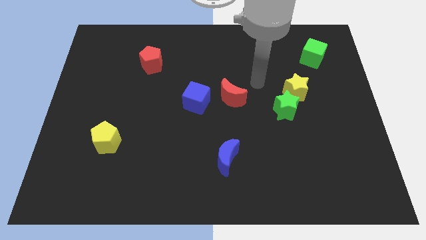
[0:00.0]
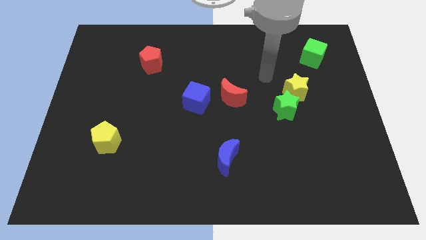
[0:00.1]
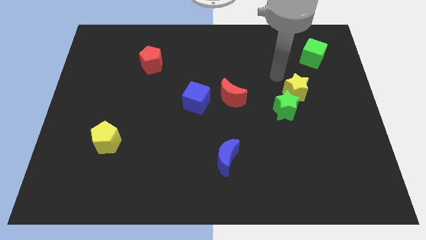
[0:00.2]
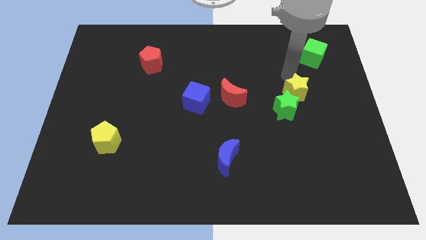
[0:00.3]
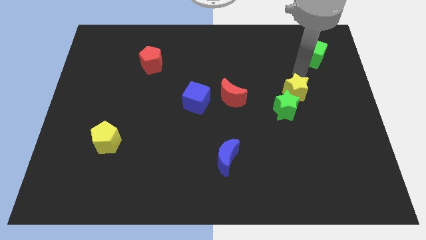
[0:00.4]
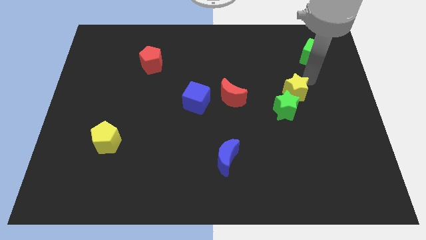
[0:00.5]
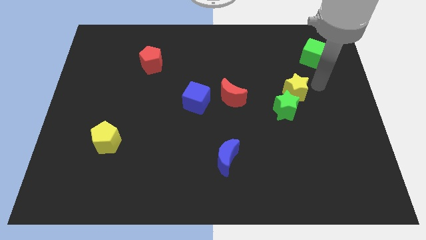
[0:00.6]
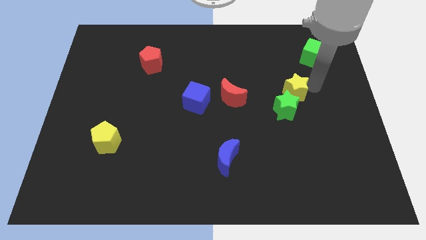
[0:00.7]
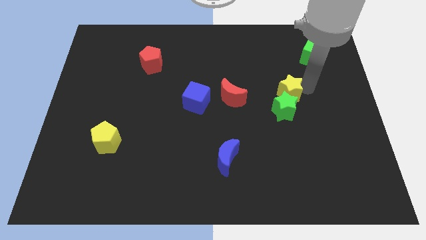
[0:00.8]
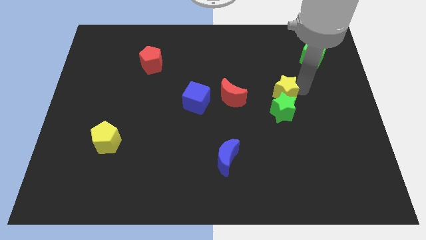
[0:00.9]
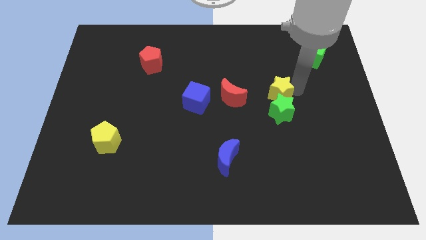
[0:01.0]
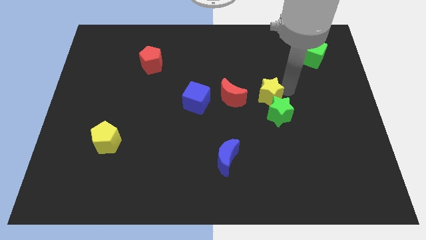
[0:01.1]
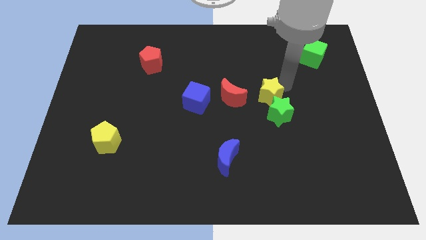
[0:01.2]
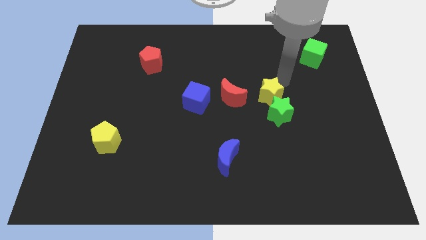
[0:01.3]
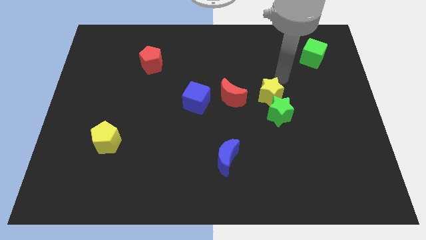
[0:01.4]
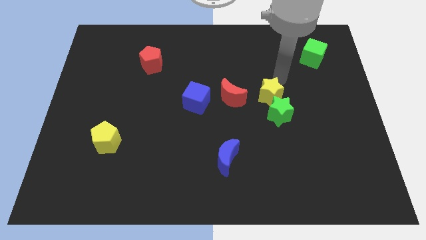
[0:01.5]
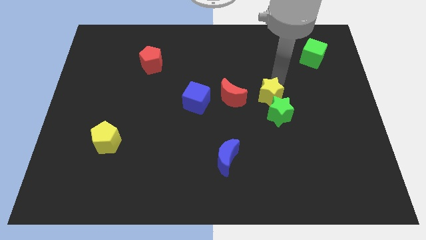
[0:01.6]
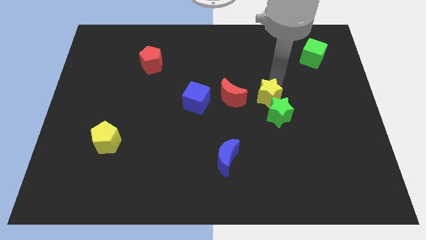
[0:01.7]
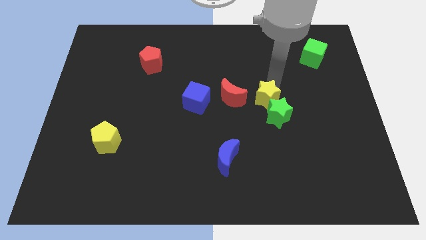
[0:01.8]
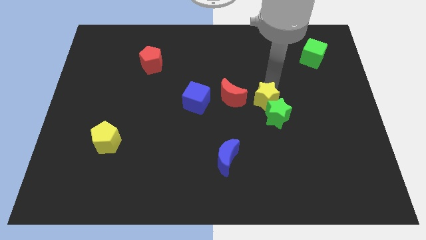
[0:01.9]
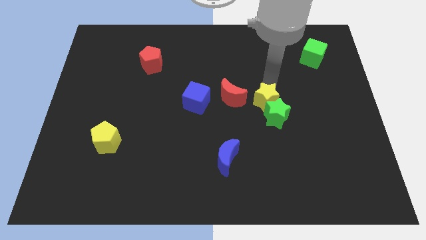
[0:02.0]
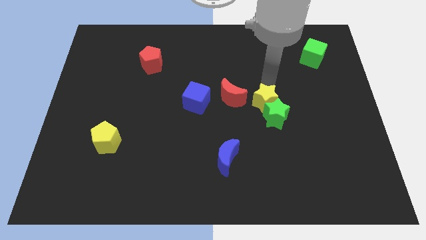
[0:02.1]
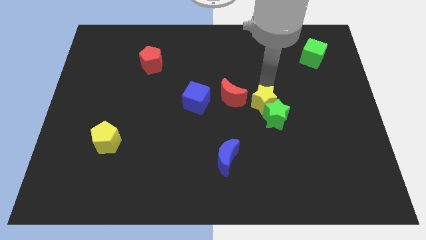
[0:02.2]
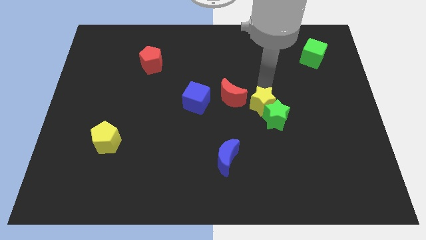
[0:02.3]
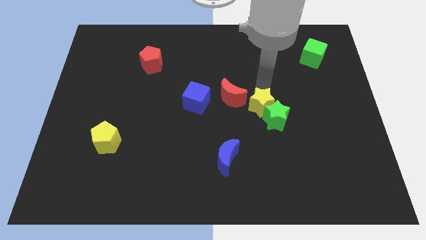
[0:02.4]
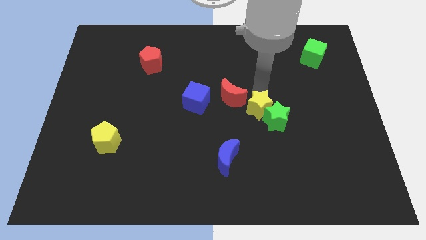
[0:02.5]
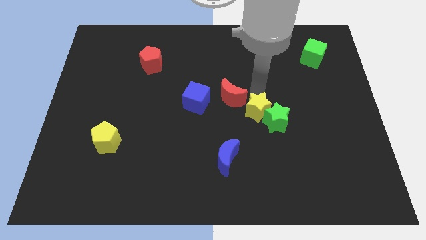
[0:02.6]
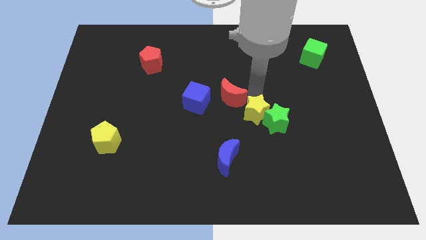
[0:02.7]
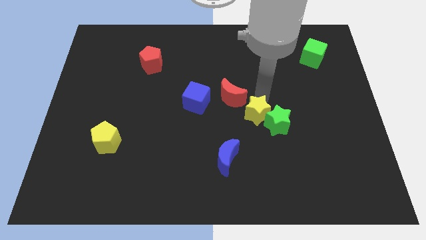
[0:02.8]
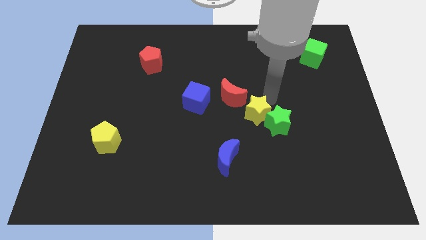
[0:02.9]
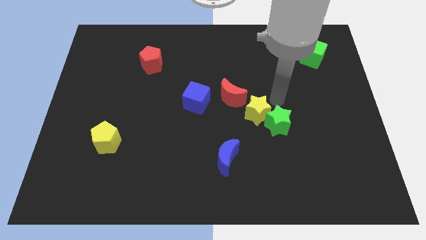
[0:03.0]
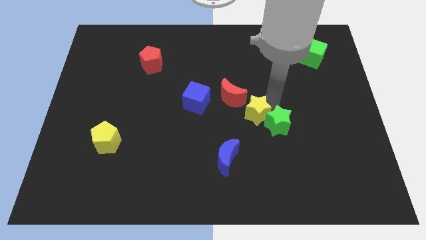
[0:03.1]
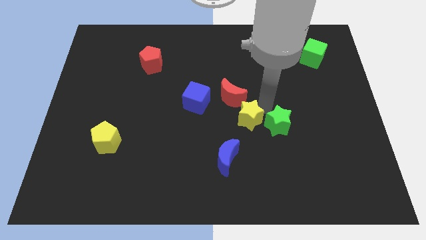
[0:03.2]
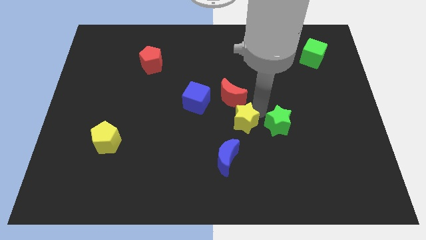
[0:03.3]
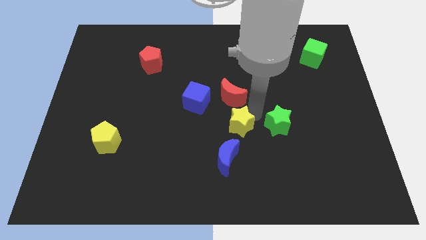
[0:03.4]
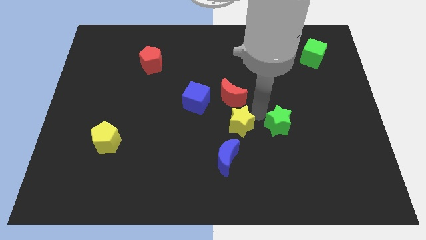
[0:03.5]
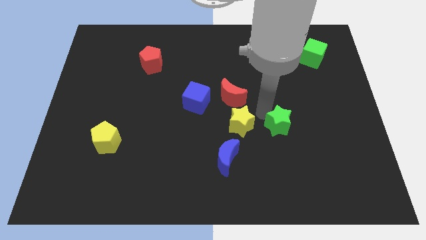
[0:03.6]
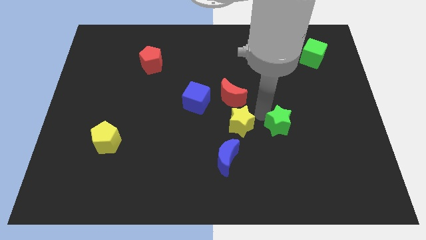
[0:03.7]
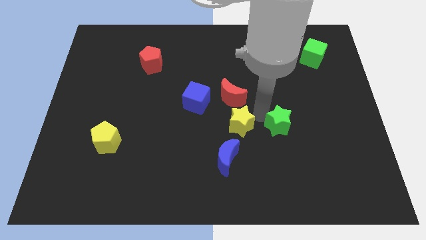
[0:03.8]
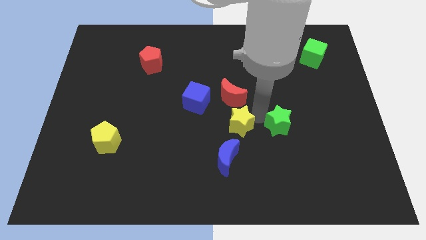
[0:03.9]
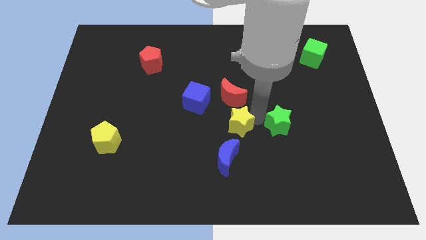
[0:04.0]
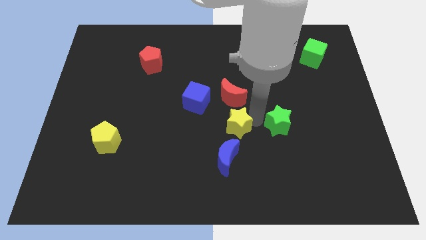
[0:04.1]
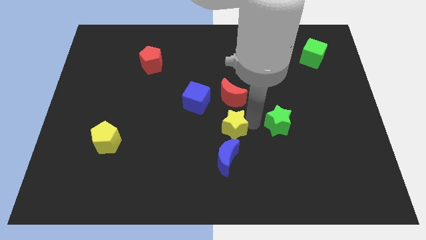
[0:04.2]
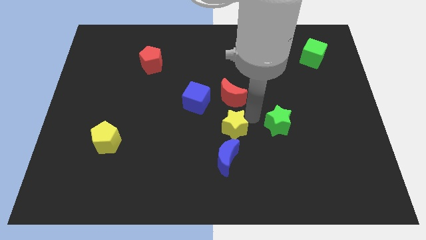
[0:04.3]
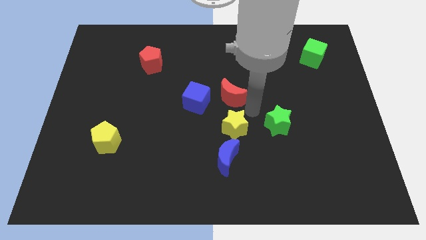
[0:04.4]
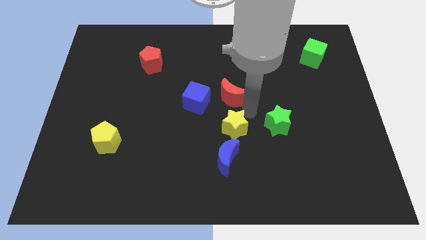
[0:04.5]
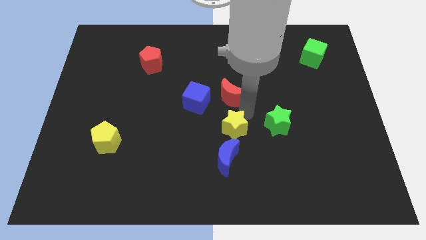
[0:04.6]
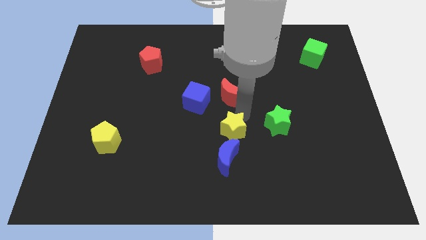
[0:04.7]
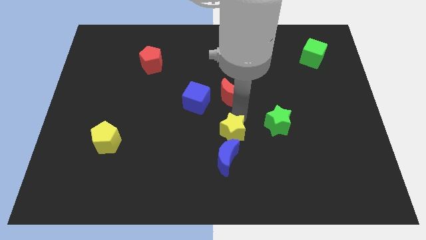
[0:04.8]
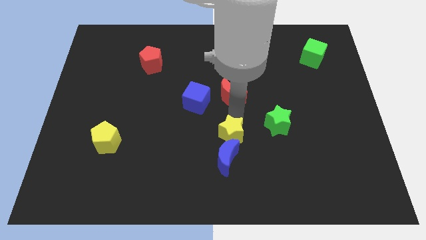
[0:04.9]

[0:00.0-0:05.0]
slide the yellow star down and left

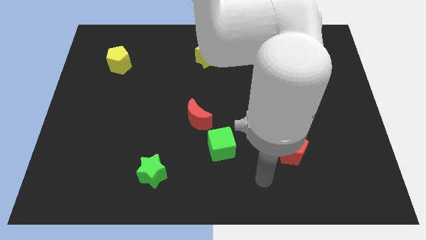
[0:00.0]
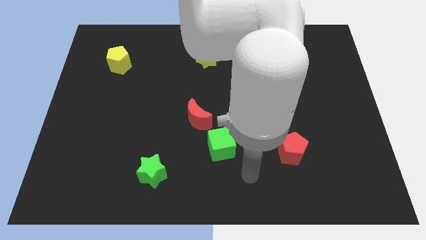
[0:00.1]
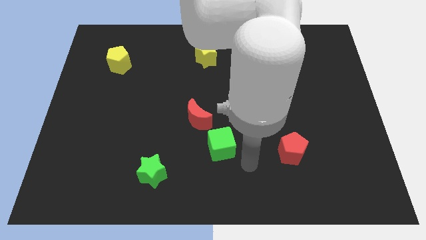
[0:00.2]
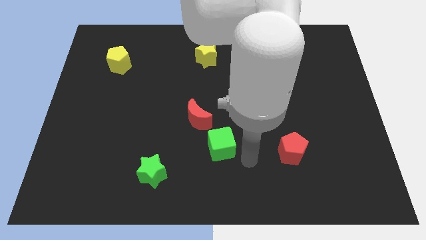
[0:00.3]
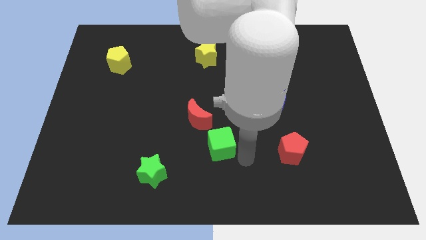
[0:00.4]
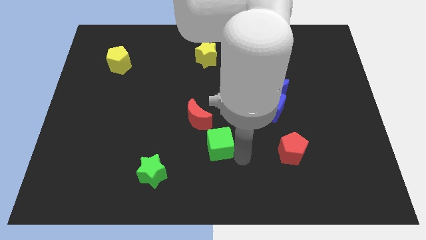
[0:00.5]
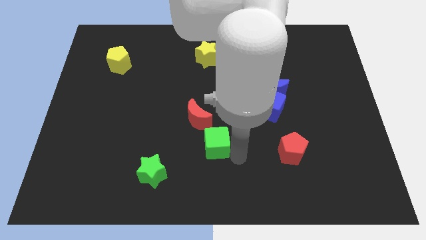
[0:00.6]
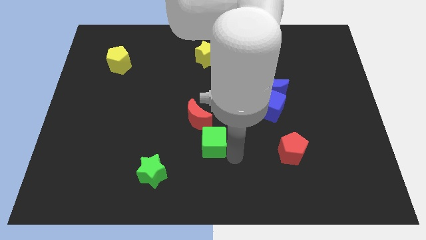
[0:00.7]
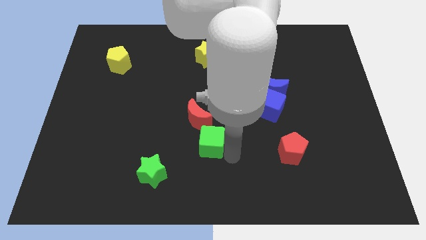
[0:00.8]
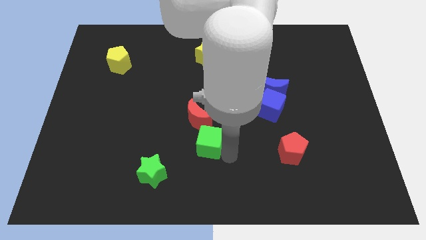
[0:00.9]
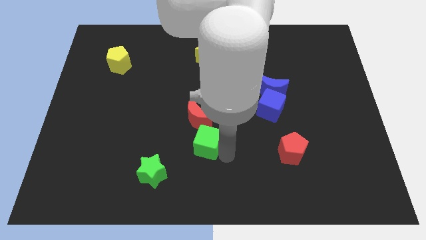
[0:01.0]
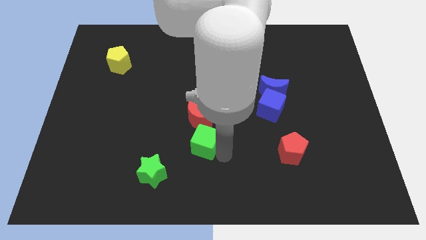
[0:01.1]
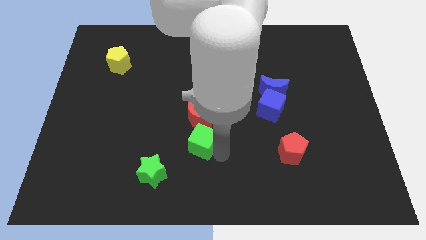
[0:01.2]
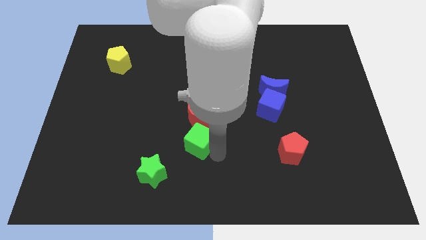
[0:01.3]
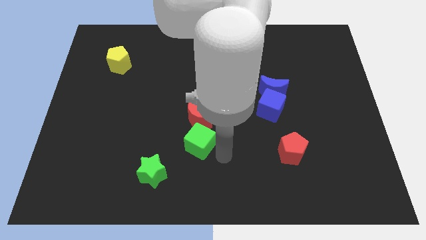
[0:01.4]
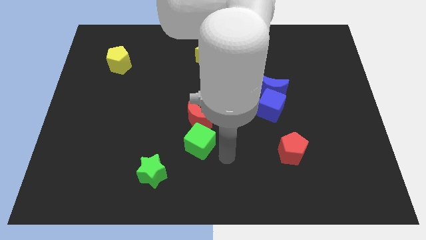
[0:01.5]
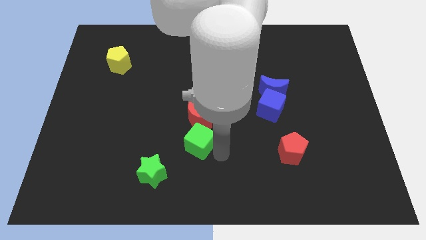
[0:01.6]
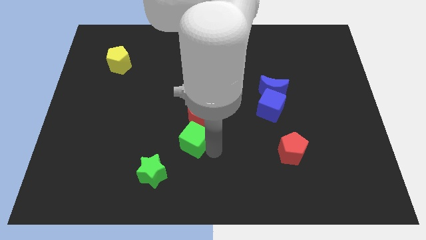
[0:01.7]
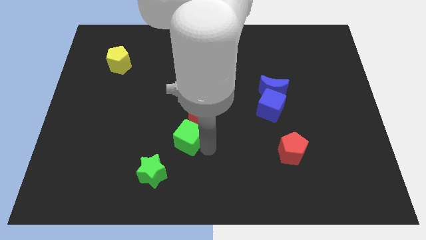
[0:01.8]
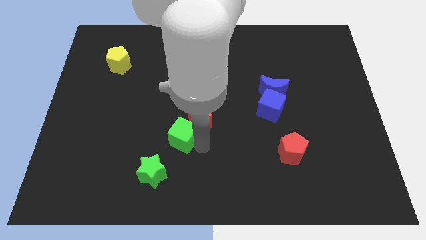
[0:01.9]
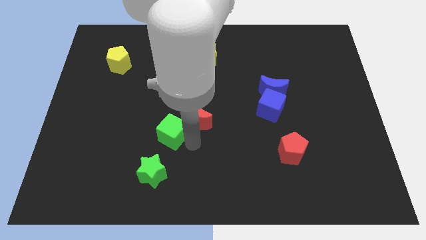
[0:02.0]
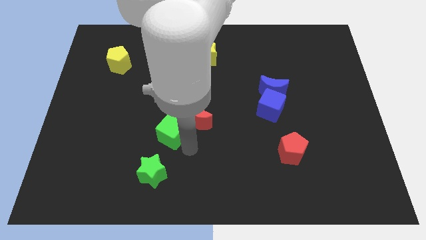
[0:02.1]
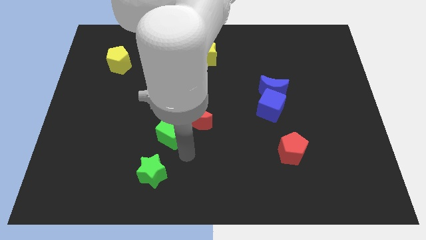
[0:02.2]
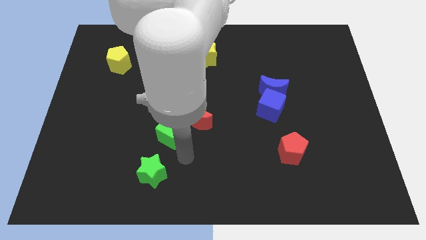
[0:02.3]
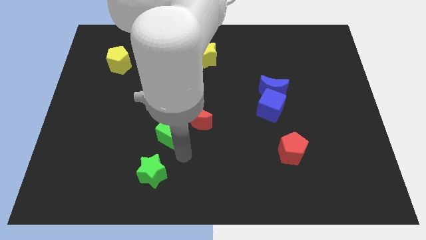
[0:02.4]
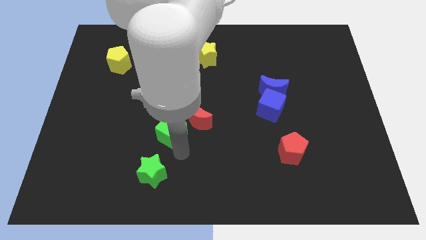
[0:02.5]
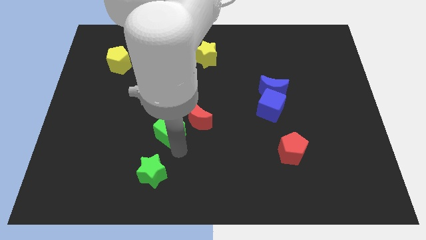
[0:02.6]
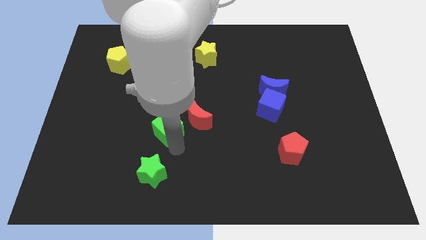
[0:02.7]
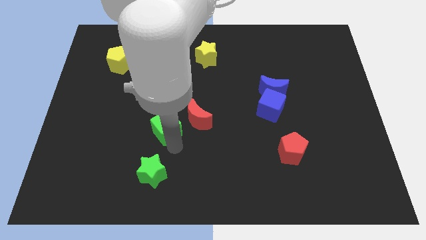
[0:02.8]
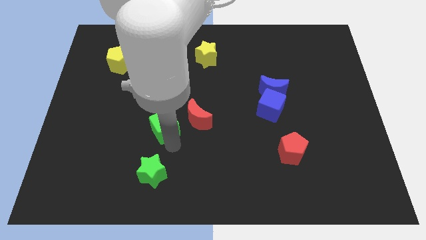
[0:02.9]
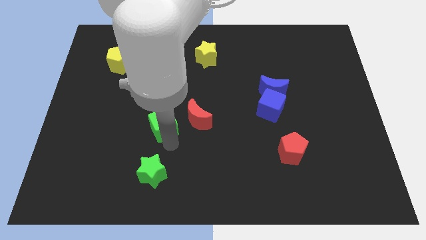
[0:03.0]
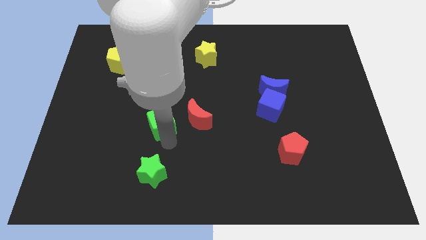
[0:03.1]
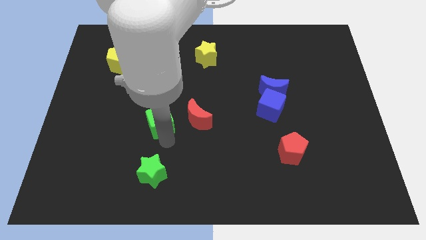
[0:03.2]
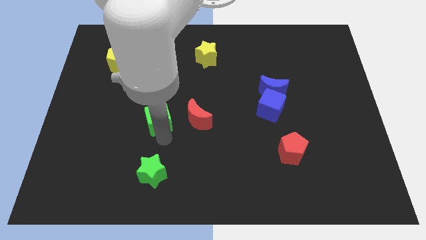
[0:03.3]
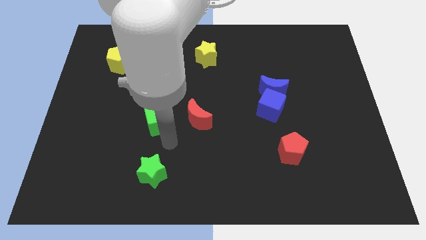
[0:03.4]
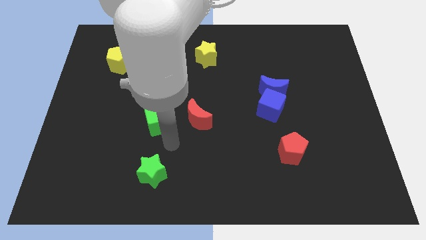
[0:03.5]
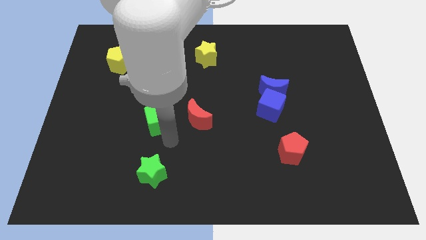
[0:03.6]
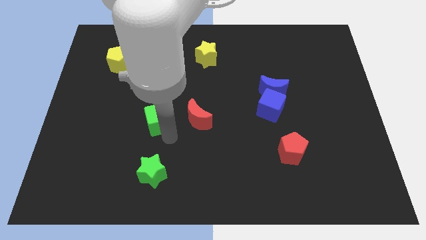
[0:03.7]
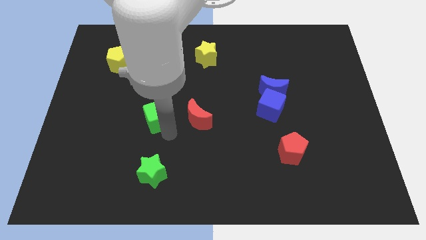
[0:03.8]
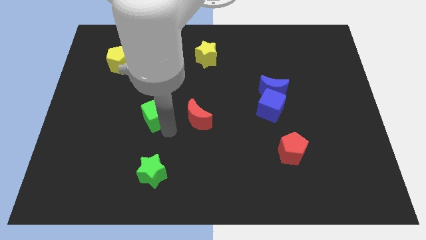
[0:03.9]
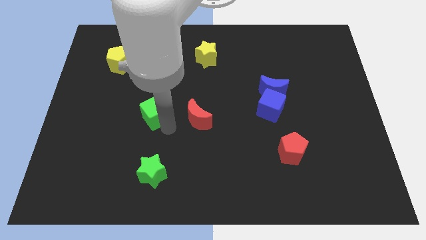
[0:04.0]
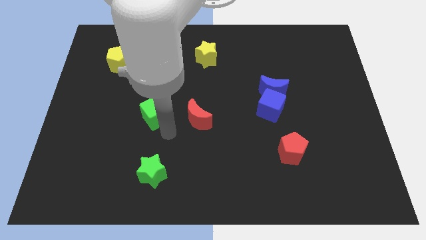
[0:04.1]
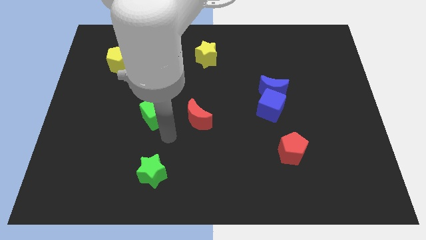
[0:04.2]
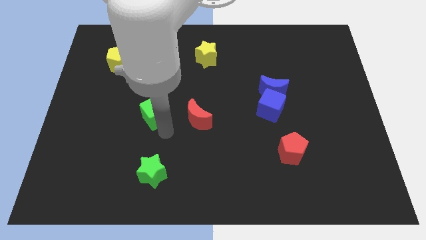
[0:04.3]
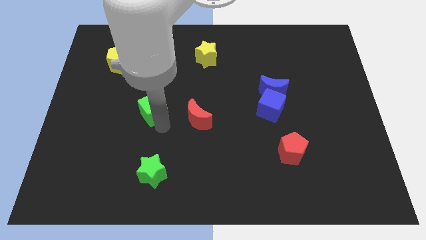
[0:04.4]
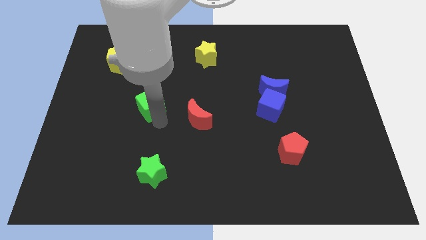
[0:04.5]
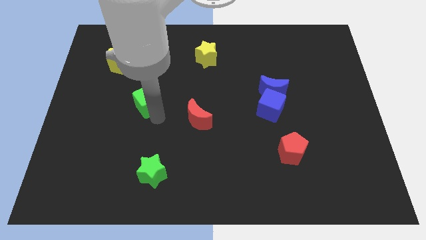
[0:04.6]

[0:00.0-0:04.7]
slide the green cube diagonally up and left
